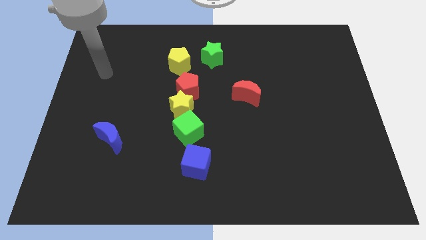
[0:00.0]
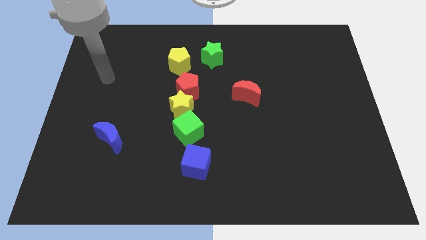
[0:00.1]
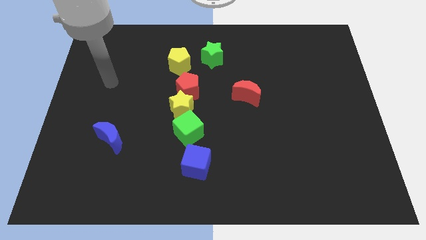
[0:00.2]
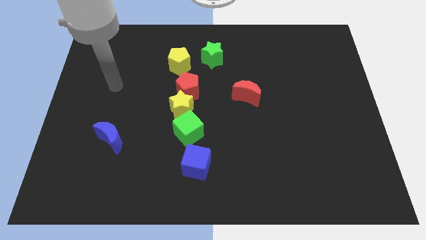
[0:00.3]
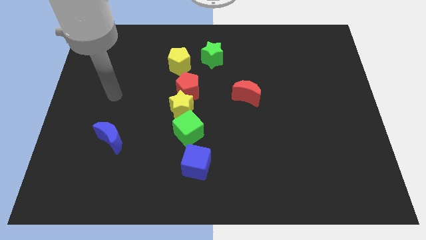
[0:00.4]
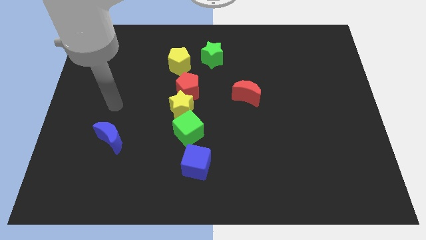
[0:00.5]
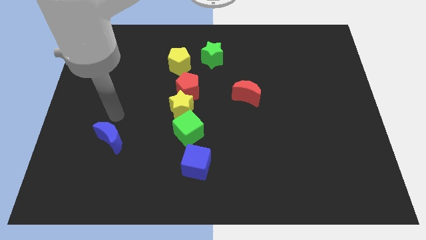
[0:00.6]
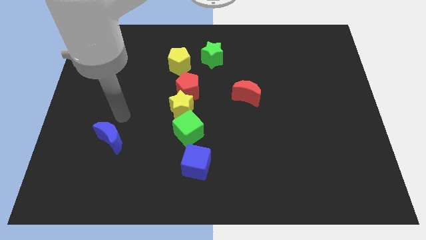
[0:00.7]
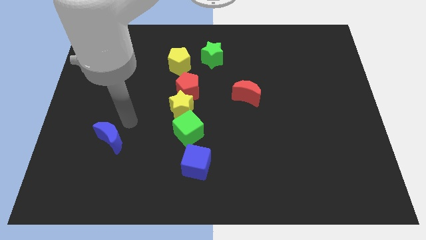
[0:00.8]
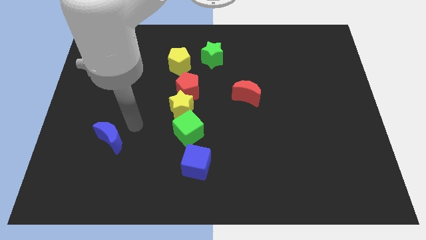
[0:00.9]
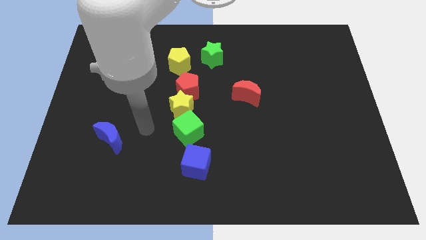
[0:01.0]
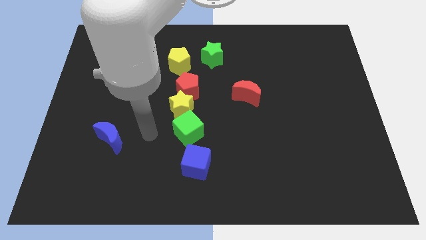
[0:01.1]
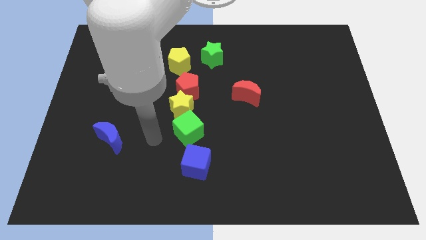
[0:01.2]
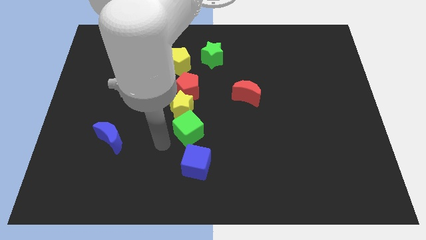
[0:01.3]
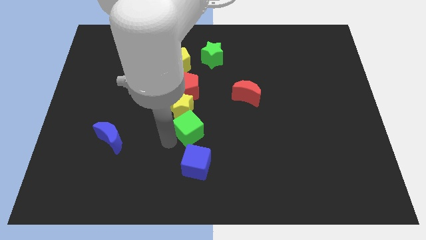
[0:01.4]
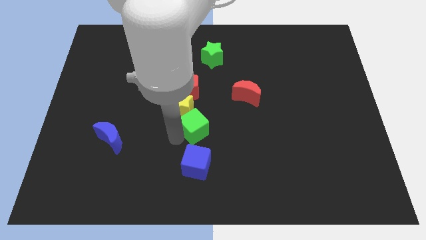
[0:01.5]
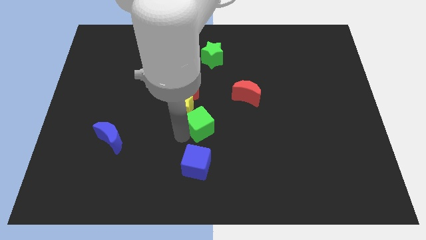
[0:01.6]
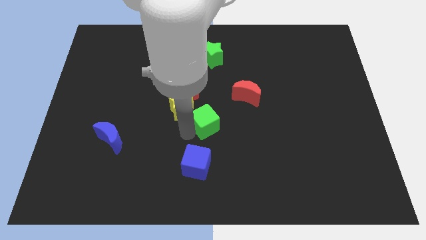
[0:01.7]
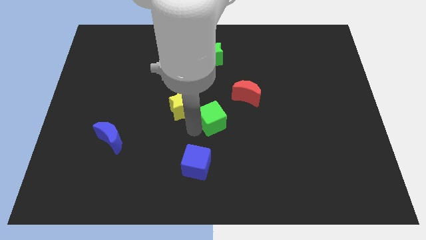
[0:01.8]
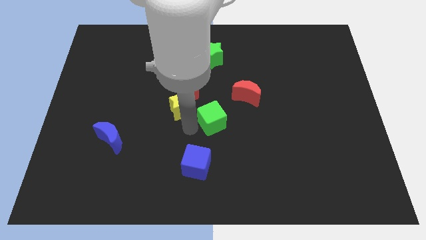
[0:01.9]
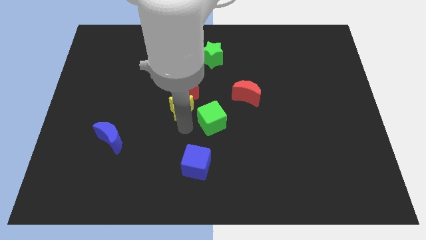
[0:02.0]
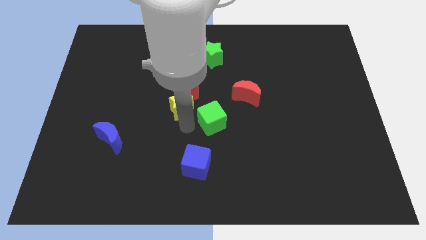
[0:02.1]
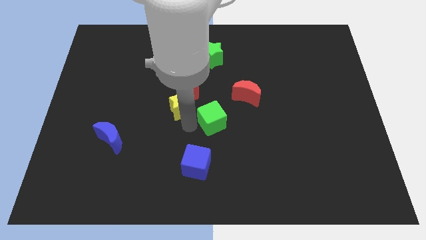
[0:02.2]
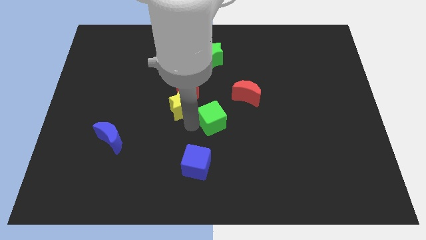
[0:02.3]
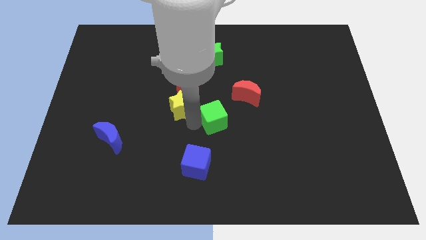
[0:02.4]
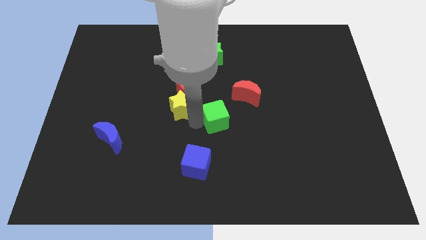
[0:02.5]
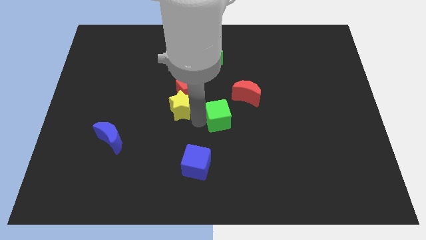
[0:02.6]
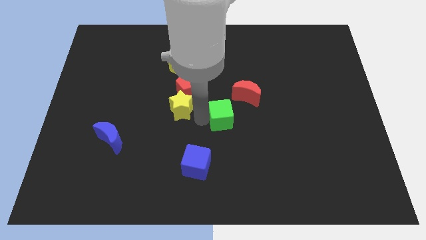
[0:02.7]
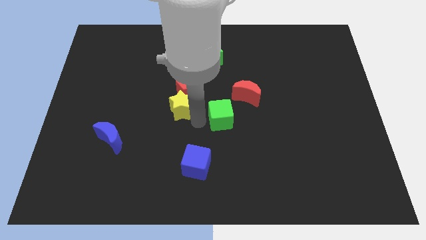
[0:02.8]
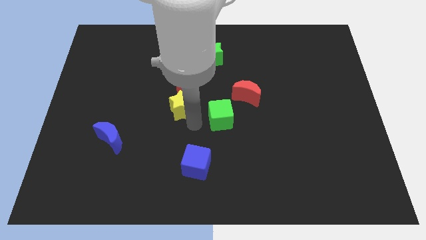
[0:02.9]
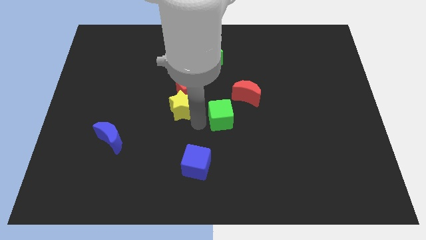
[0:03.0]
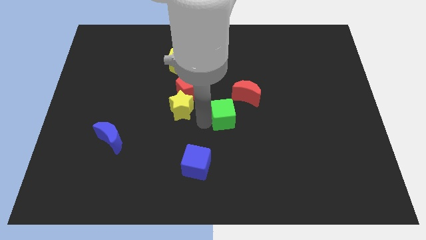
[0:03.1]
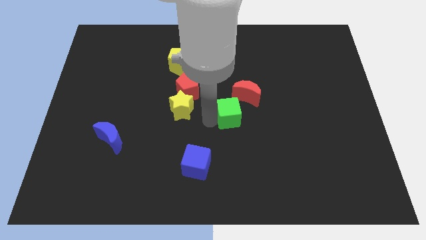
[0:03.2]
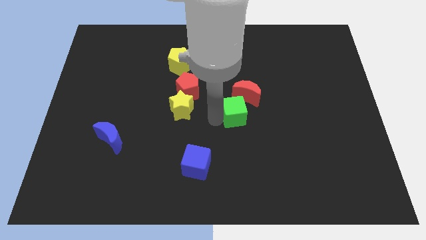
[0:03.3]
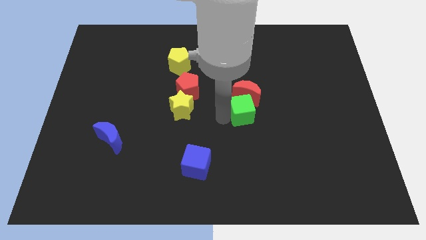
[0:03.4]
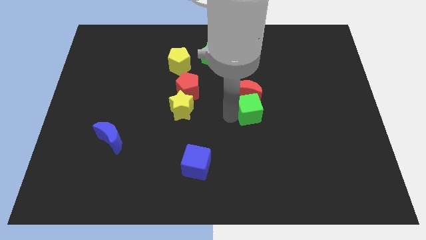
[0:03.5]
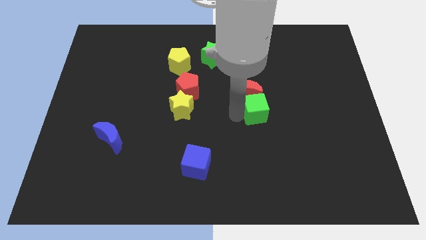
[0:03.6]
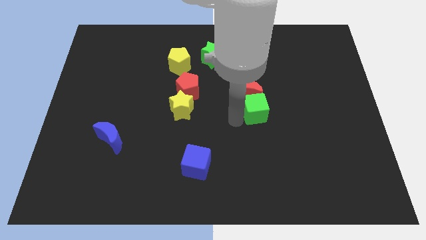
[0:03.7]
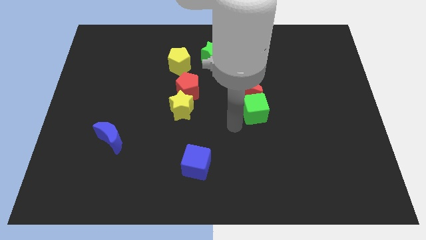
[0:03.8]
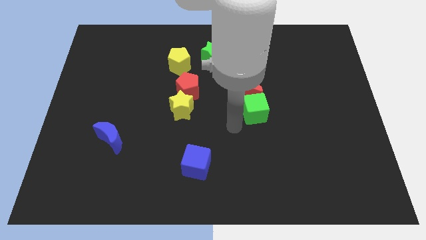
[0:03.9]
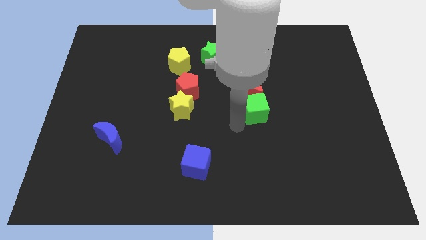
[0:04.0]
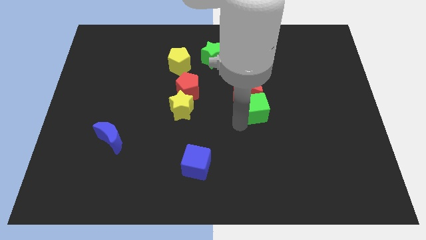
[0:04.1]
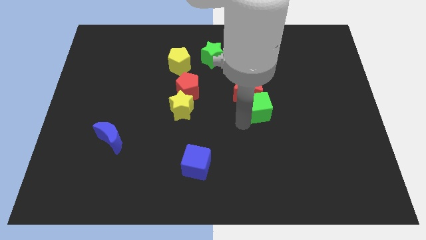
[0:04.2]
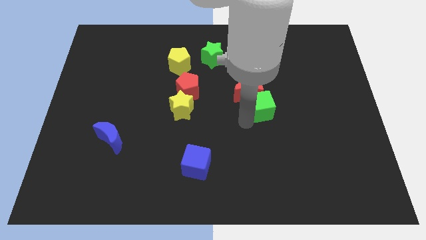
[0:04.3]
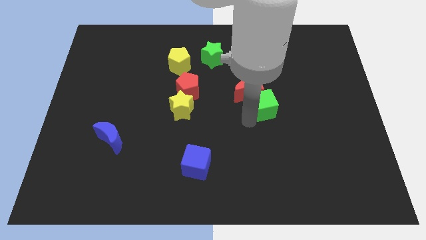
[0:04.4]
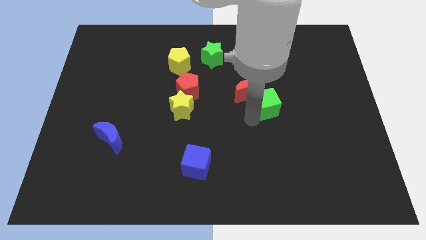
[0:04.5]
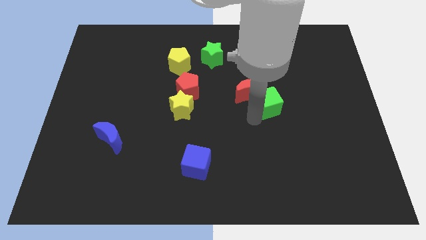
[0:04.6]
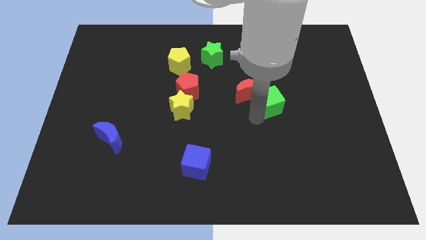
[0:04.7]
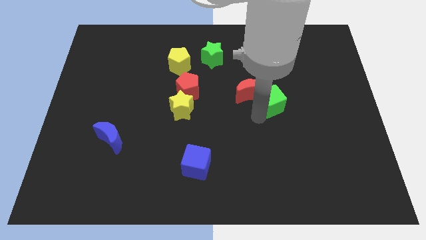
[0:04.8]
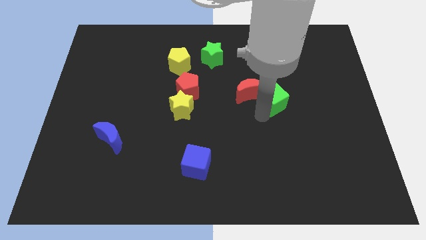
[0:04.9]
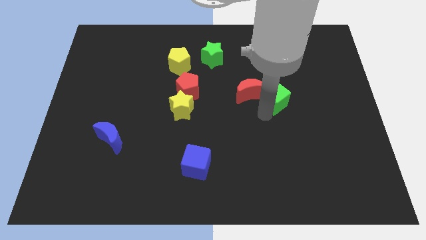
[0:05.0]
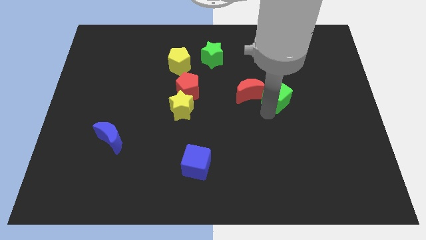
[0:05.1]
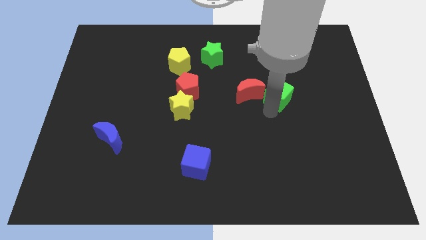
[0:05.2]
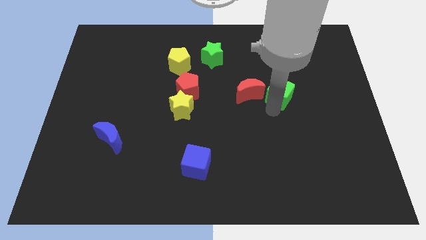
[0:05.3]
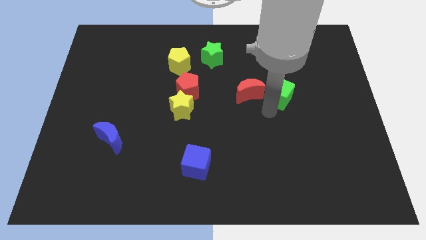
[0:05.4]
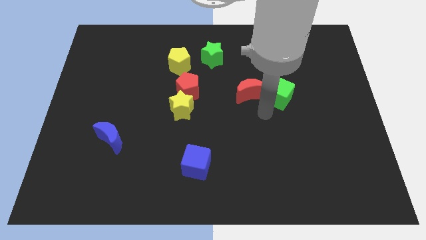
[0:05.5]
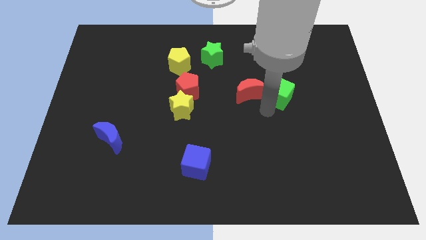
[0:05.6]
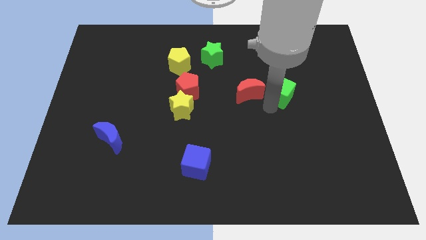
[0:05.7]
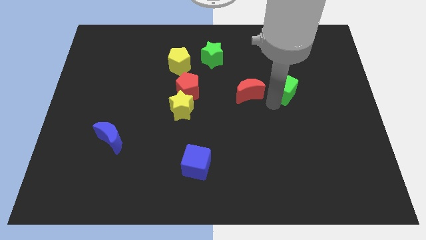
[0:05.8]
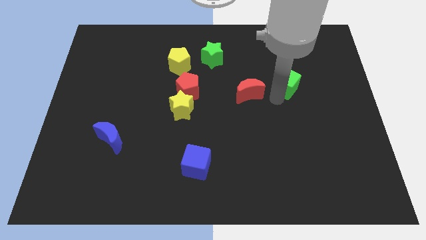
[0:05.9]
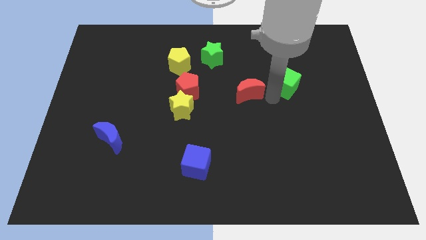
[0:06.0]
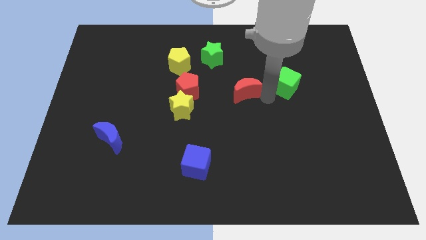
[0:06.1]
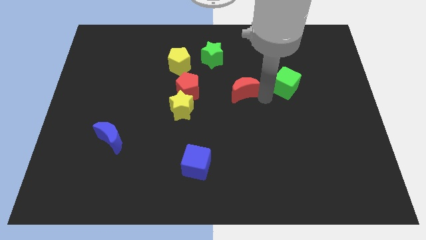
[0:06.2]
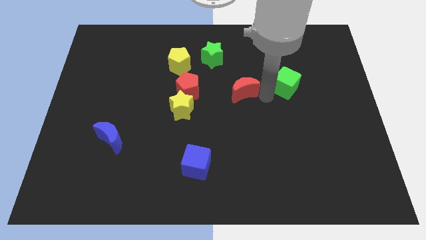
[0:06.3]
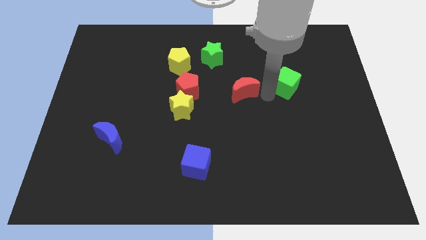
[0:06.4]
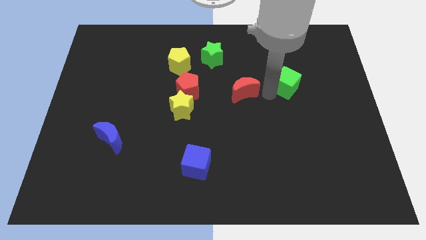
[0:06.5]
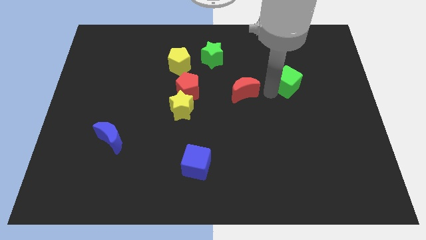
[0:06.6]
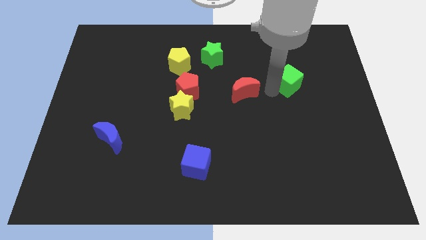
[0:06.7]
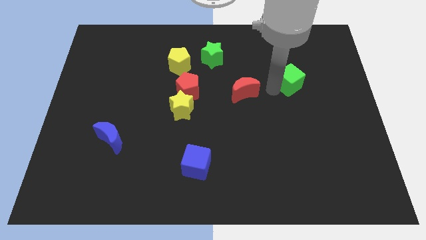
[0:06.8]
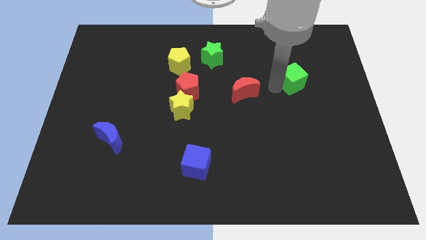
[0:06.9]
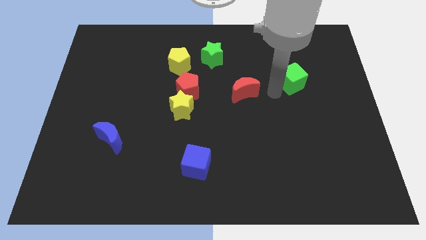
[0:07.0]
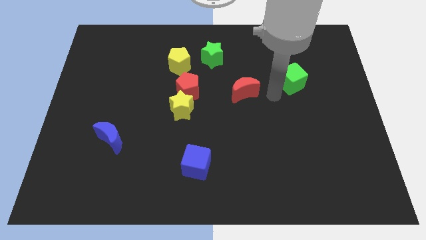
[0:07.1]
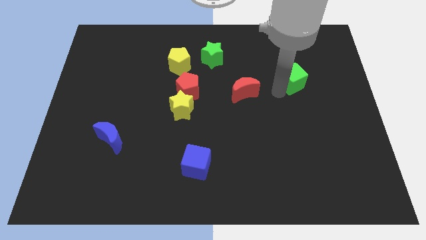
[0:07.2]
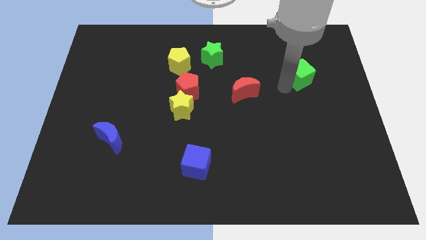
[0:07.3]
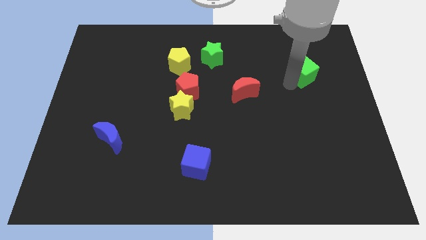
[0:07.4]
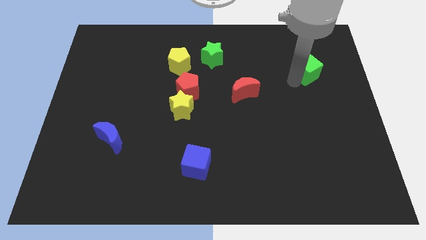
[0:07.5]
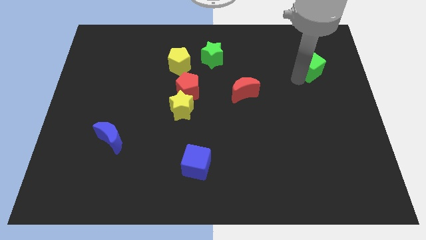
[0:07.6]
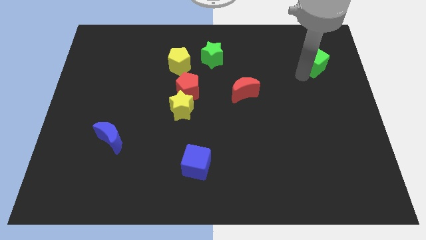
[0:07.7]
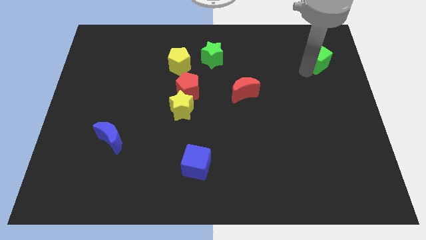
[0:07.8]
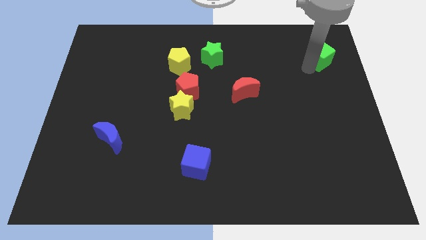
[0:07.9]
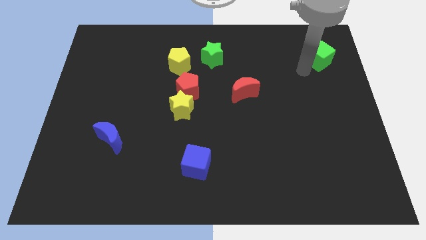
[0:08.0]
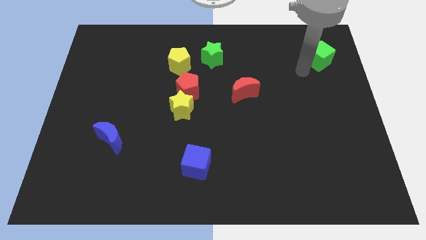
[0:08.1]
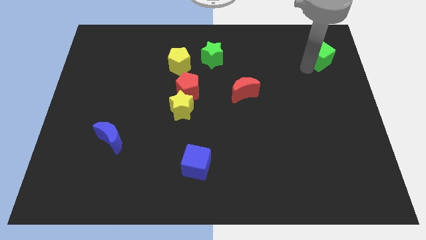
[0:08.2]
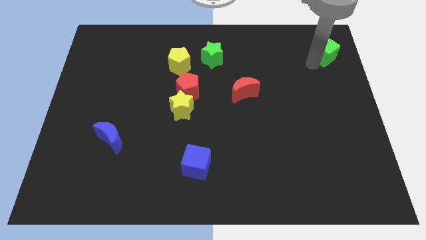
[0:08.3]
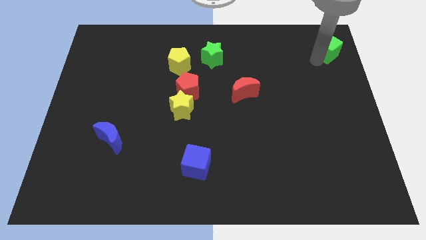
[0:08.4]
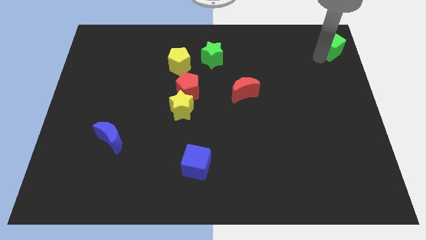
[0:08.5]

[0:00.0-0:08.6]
move the green cube to the top right corner
